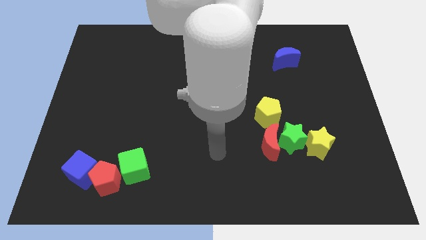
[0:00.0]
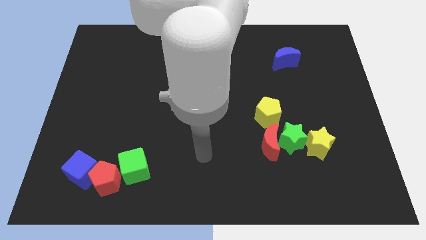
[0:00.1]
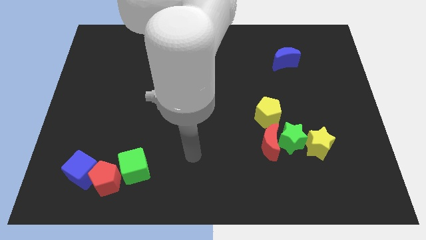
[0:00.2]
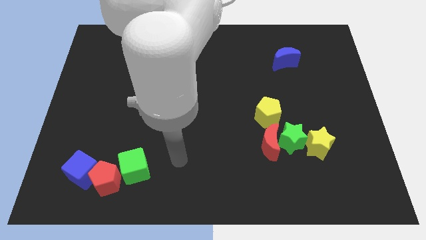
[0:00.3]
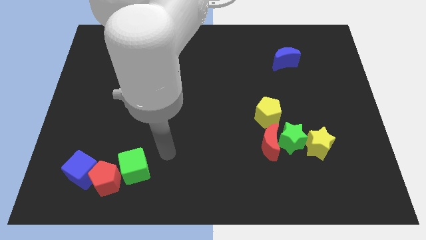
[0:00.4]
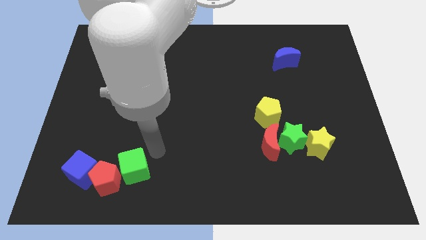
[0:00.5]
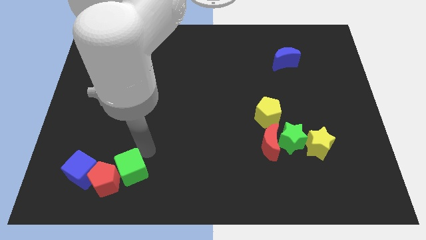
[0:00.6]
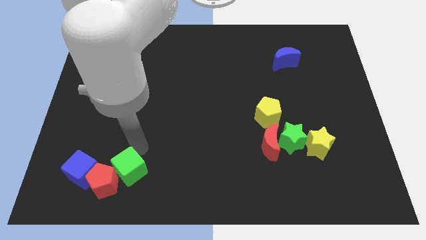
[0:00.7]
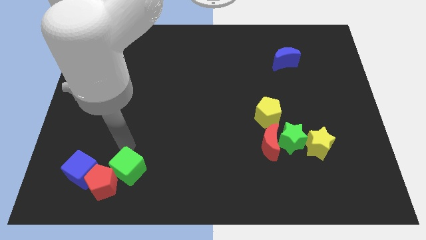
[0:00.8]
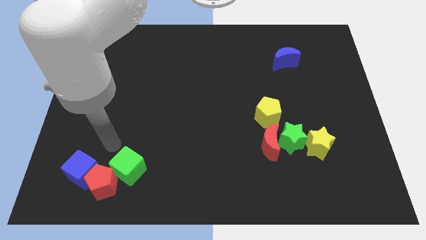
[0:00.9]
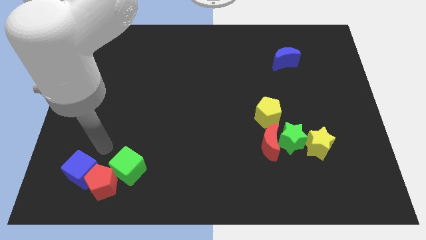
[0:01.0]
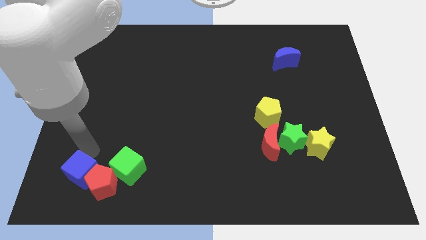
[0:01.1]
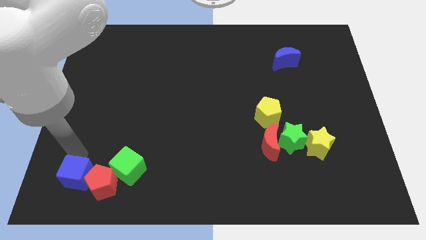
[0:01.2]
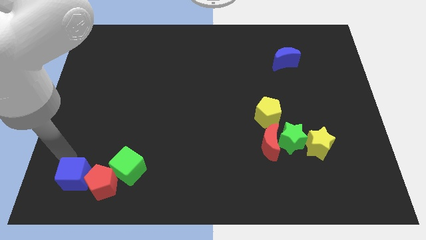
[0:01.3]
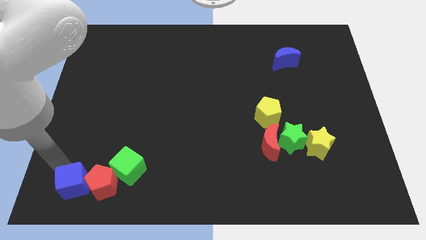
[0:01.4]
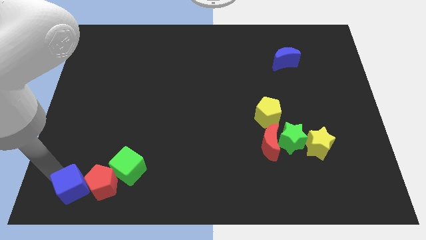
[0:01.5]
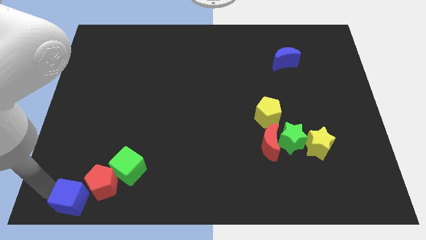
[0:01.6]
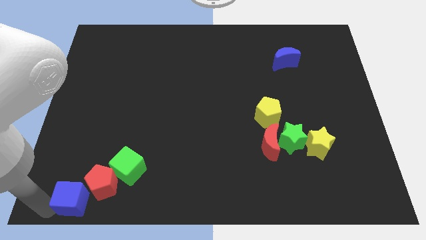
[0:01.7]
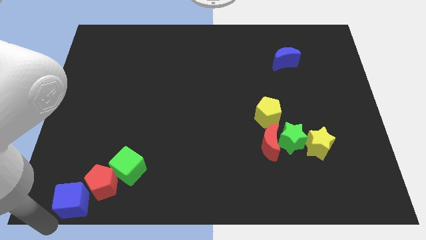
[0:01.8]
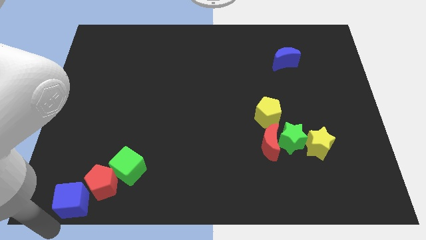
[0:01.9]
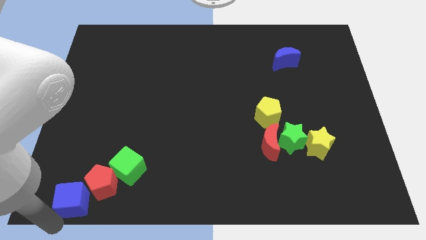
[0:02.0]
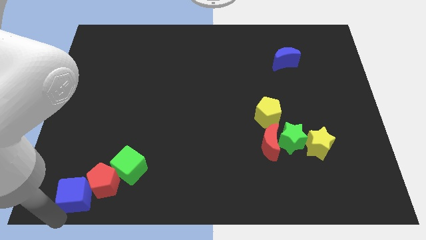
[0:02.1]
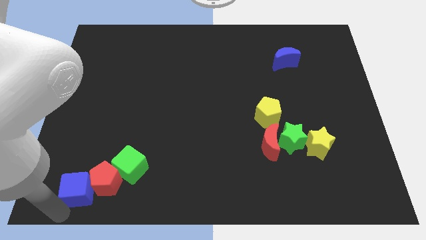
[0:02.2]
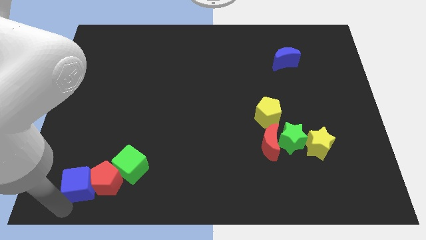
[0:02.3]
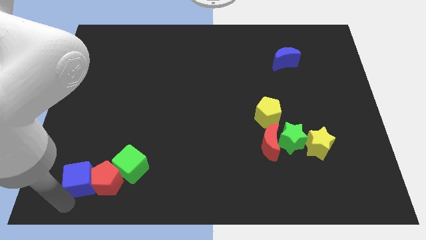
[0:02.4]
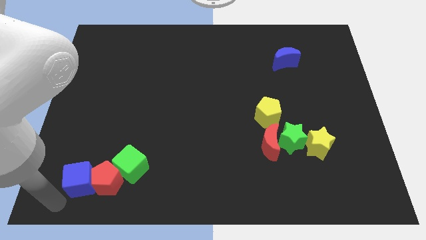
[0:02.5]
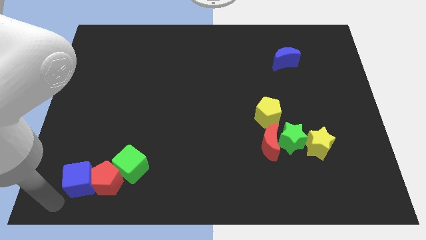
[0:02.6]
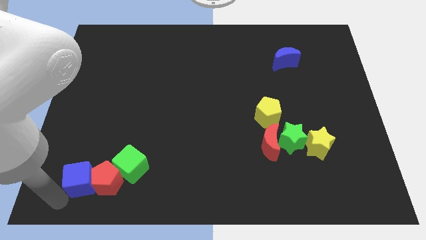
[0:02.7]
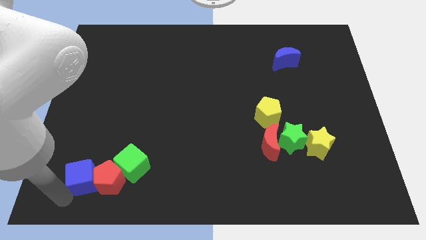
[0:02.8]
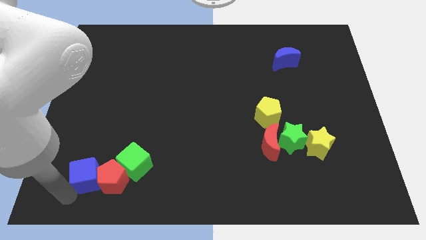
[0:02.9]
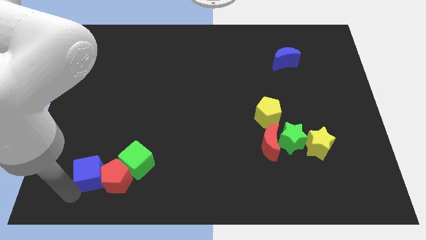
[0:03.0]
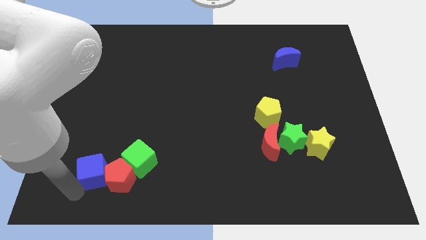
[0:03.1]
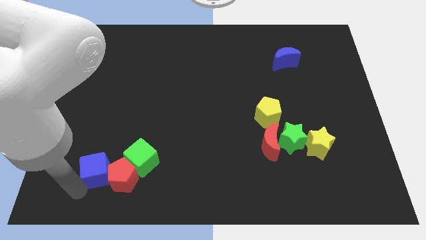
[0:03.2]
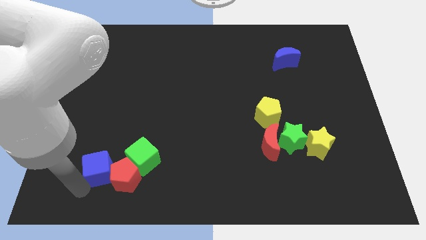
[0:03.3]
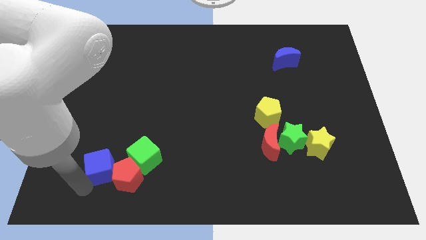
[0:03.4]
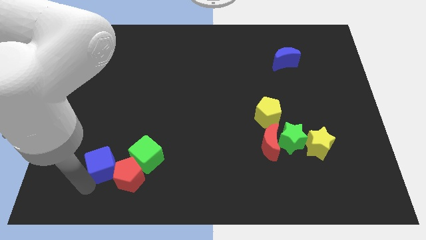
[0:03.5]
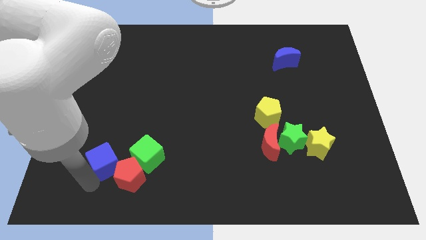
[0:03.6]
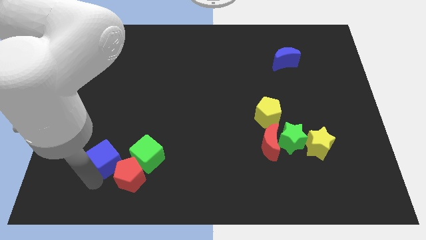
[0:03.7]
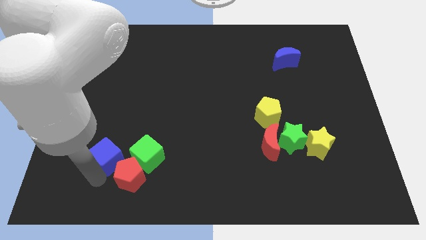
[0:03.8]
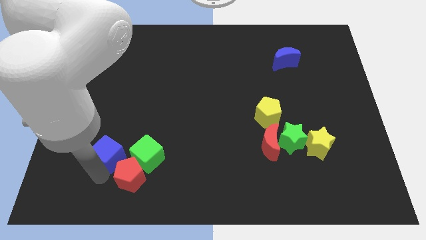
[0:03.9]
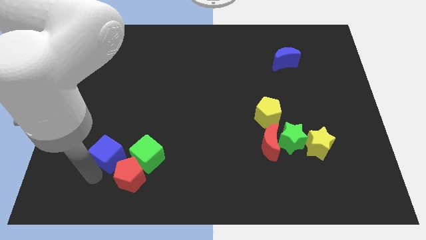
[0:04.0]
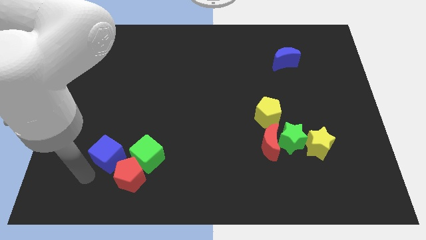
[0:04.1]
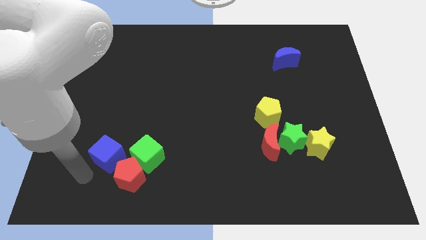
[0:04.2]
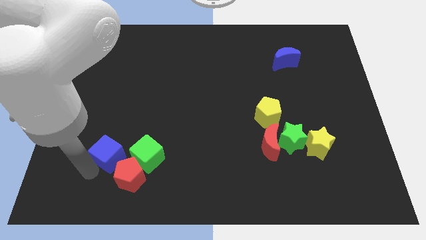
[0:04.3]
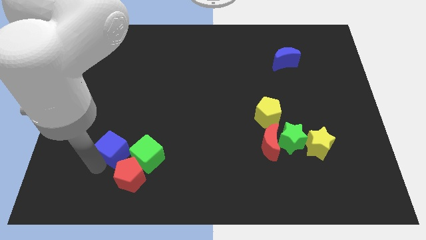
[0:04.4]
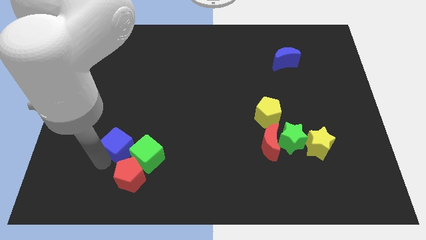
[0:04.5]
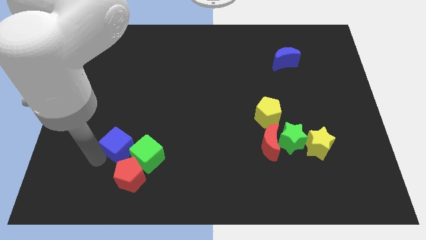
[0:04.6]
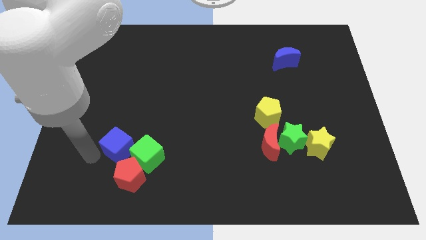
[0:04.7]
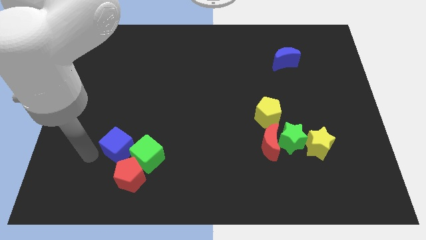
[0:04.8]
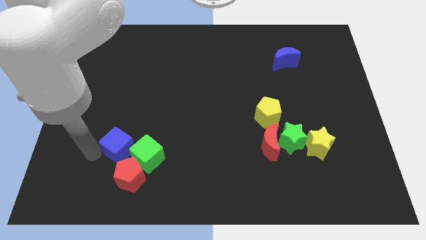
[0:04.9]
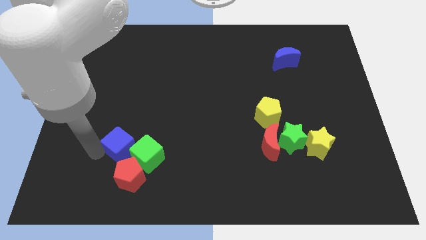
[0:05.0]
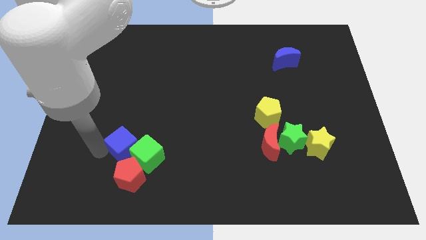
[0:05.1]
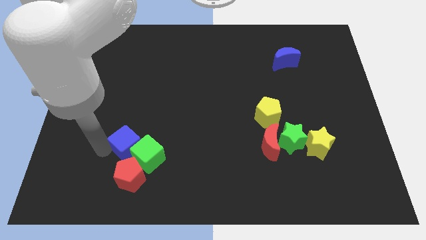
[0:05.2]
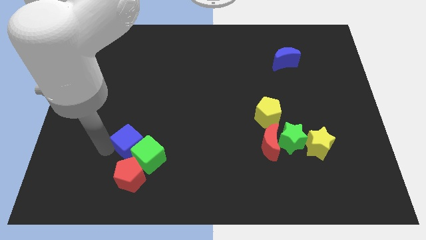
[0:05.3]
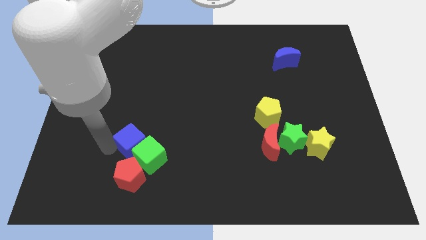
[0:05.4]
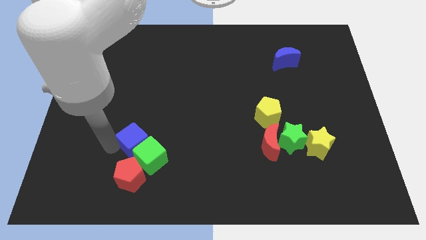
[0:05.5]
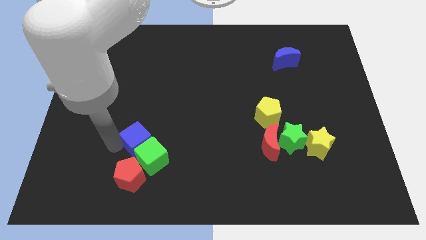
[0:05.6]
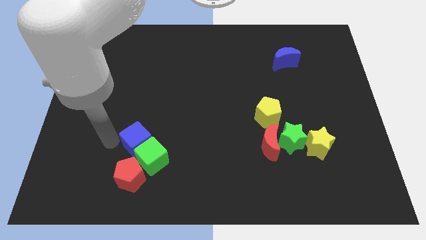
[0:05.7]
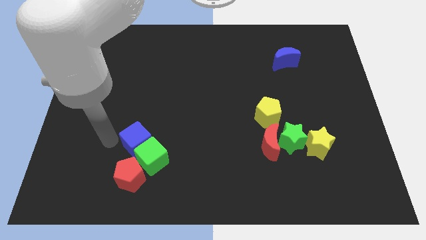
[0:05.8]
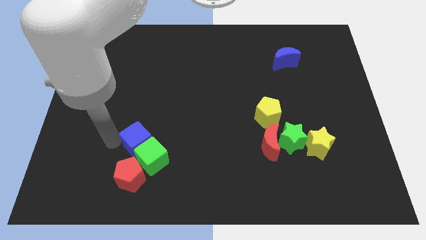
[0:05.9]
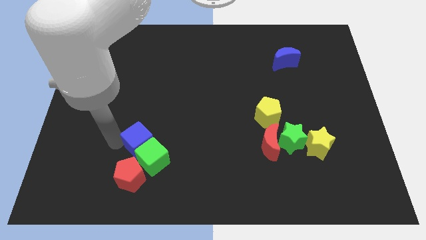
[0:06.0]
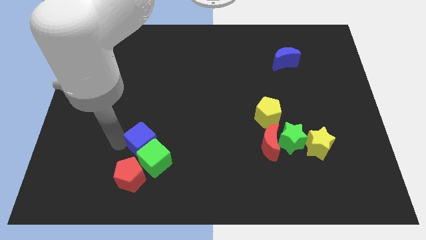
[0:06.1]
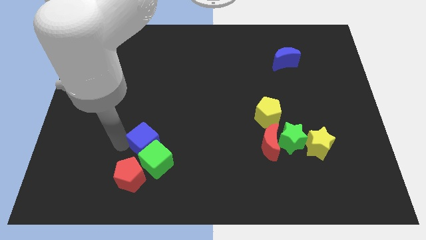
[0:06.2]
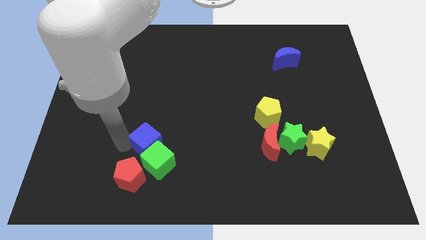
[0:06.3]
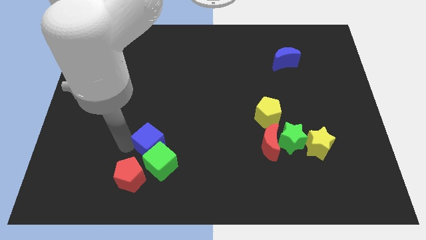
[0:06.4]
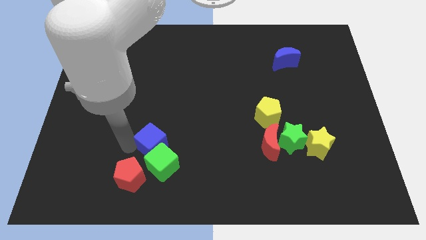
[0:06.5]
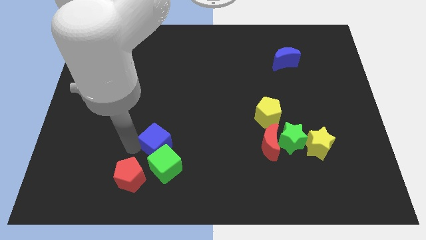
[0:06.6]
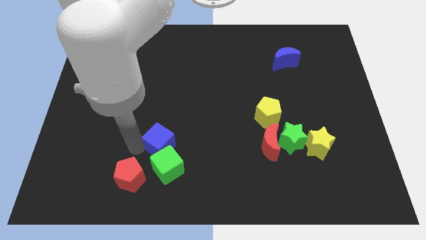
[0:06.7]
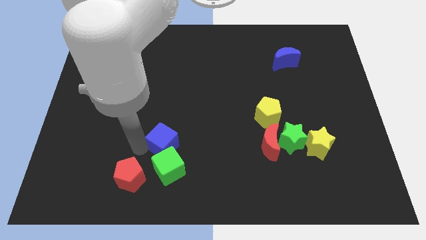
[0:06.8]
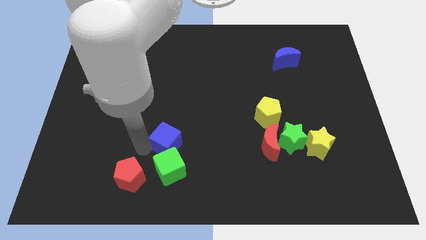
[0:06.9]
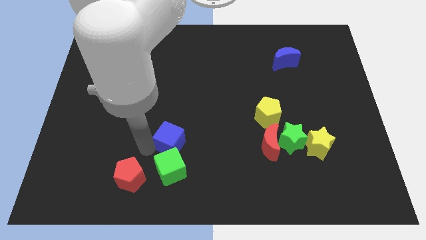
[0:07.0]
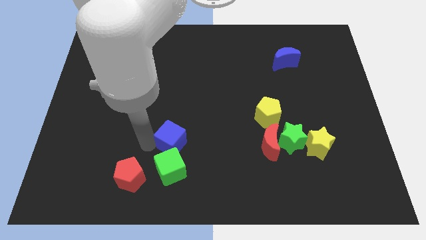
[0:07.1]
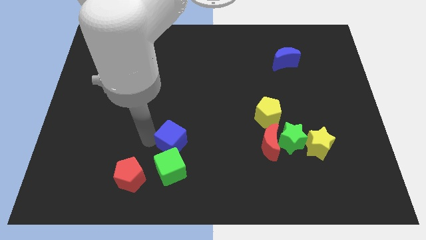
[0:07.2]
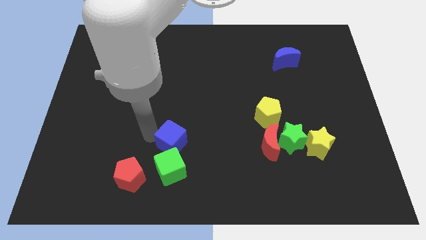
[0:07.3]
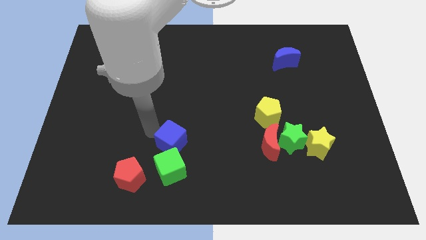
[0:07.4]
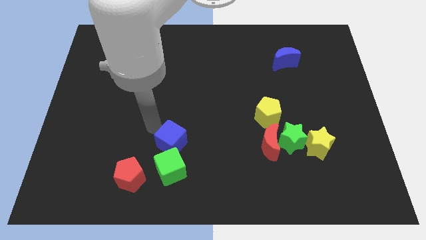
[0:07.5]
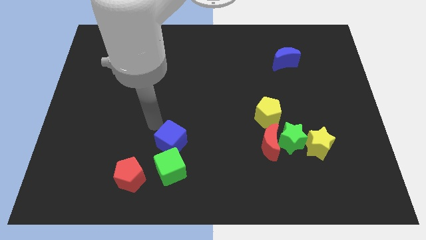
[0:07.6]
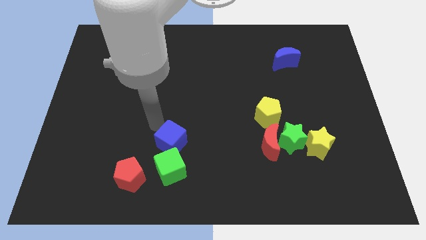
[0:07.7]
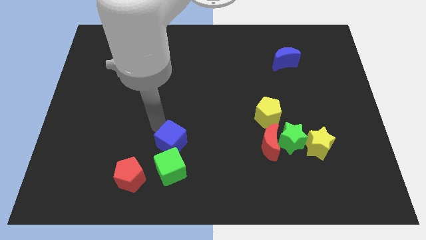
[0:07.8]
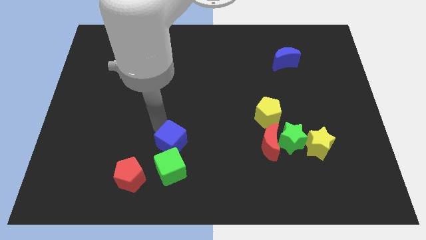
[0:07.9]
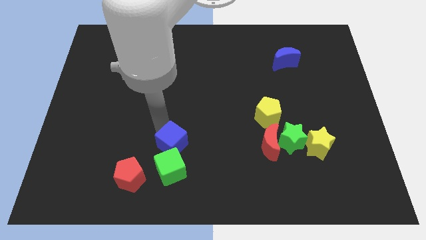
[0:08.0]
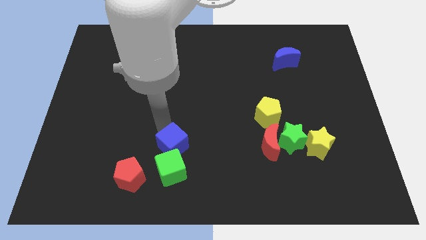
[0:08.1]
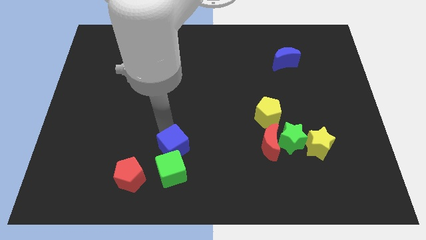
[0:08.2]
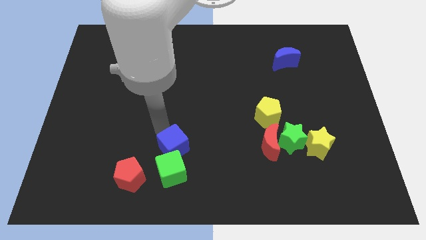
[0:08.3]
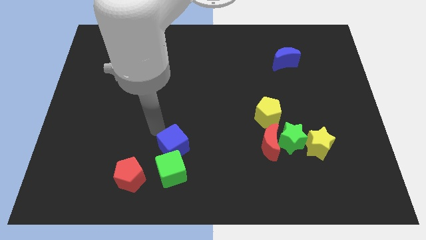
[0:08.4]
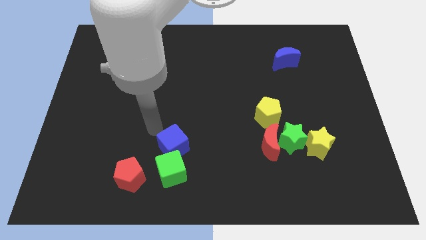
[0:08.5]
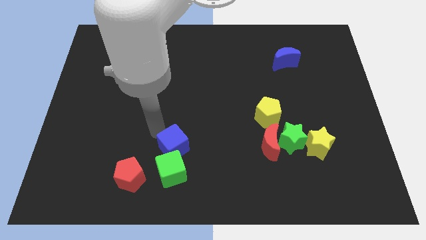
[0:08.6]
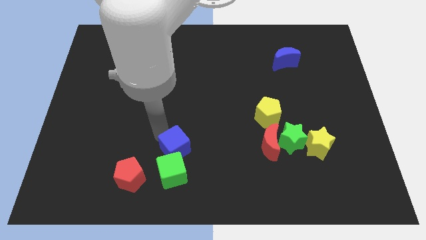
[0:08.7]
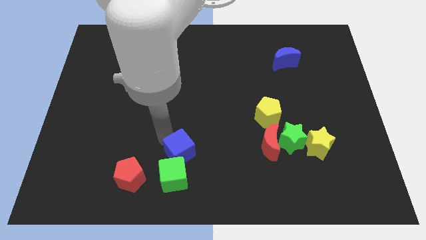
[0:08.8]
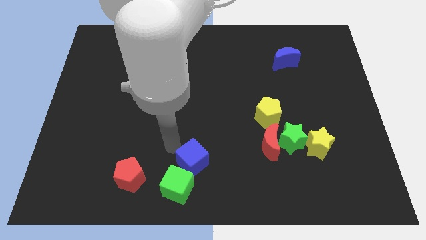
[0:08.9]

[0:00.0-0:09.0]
move the blue cube to the right
